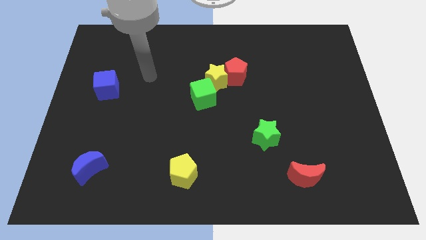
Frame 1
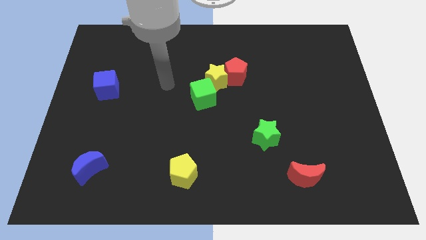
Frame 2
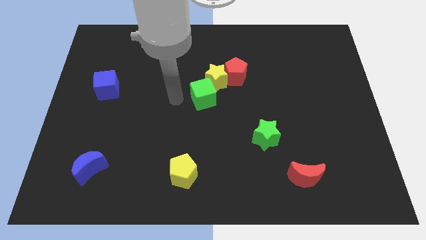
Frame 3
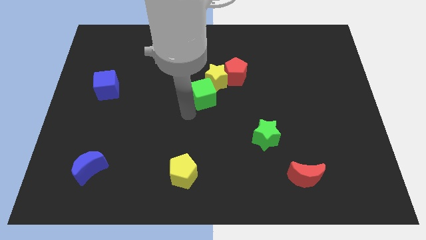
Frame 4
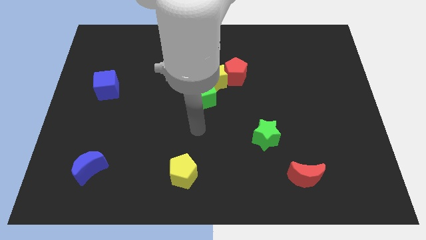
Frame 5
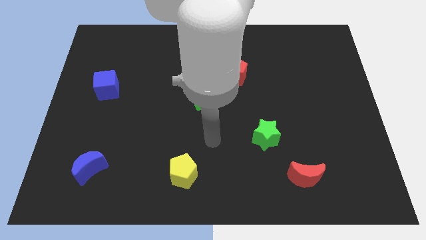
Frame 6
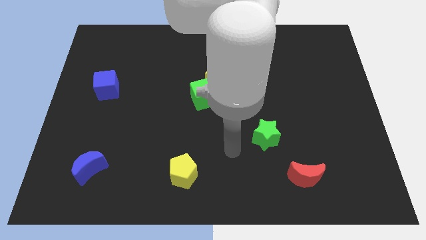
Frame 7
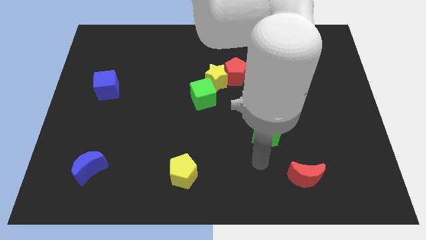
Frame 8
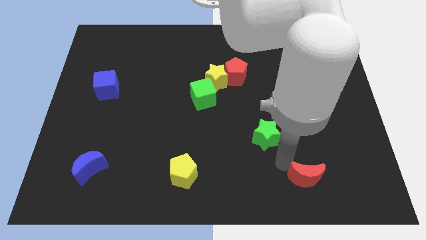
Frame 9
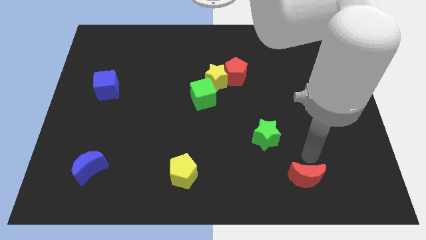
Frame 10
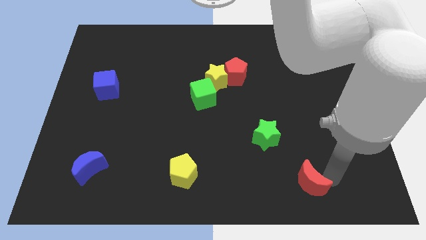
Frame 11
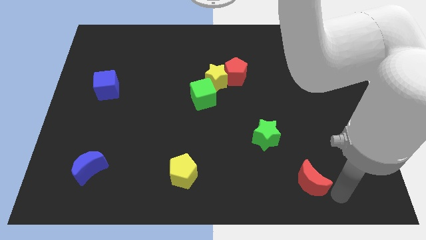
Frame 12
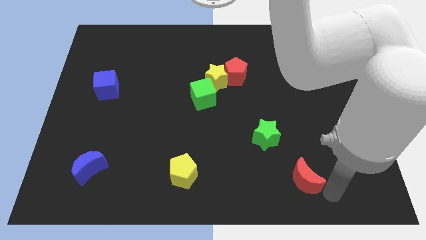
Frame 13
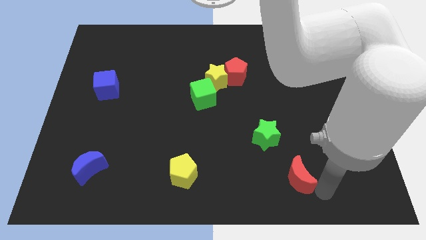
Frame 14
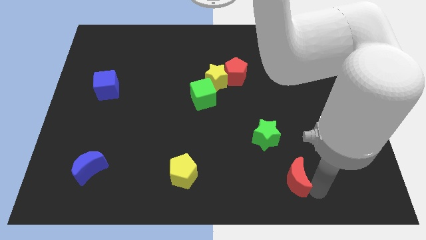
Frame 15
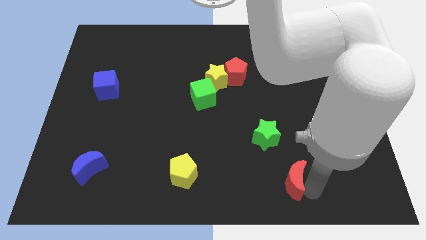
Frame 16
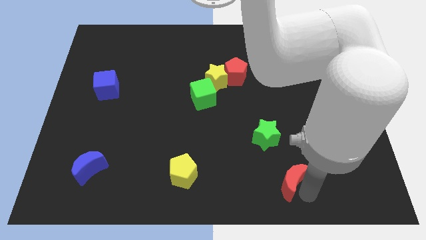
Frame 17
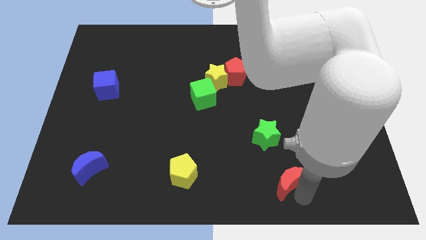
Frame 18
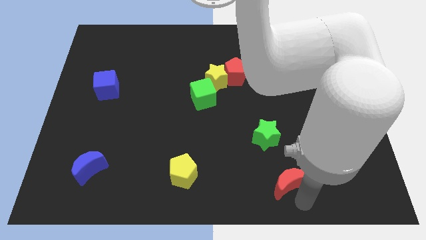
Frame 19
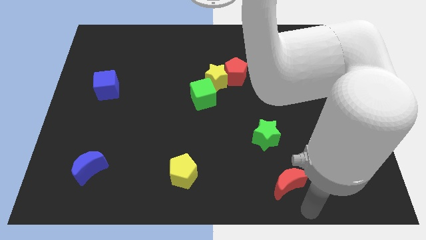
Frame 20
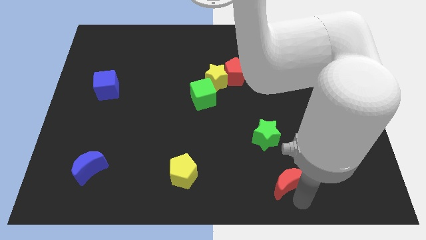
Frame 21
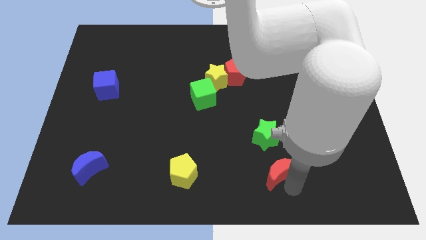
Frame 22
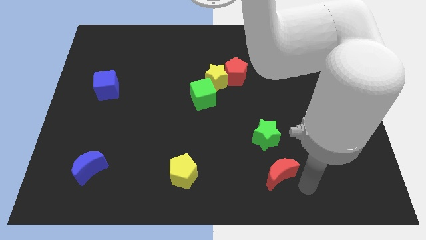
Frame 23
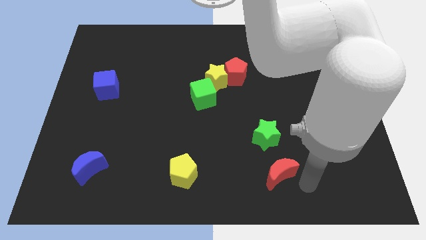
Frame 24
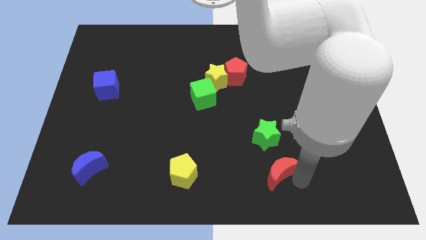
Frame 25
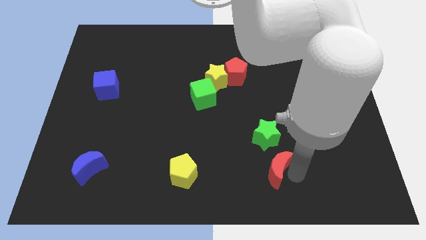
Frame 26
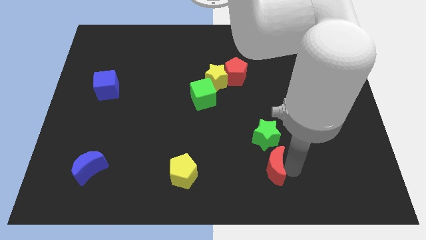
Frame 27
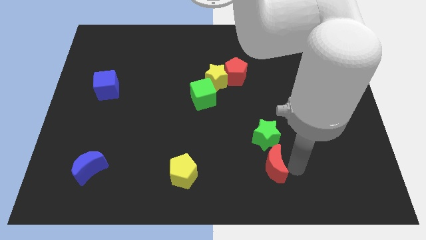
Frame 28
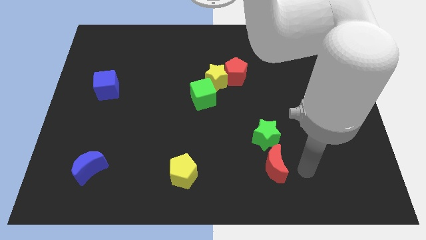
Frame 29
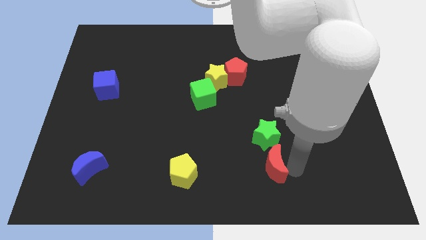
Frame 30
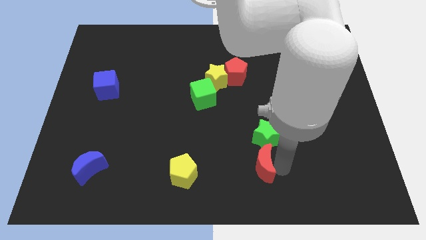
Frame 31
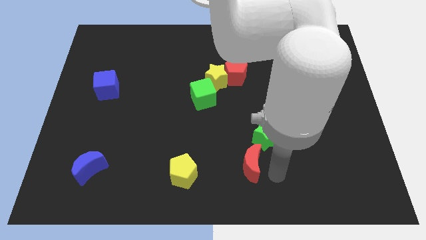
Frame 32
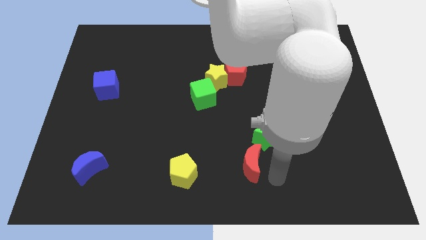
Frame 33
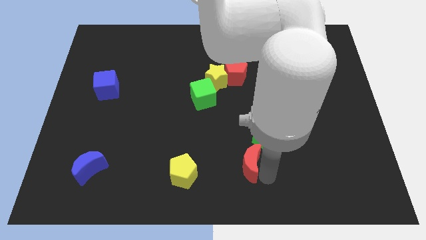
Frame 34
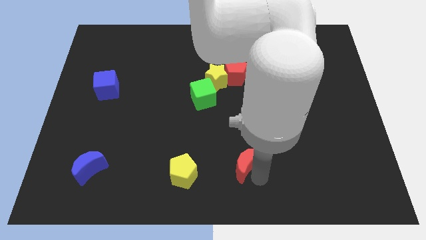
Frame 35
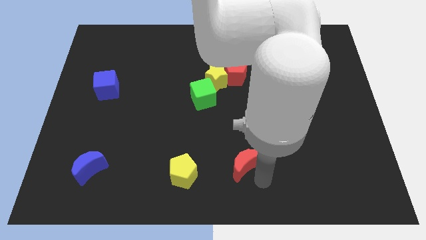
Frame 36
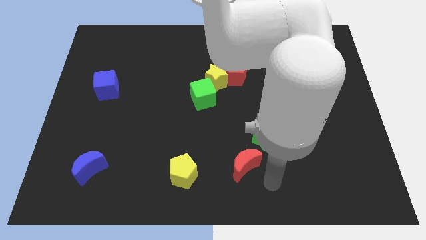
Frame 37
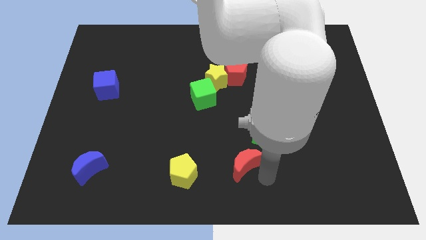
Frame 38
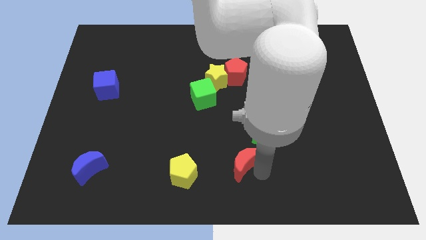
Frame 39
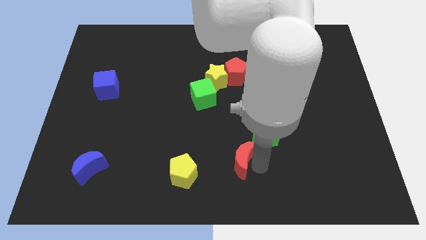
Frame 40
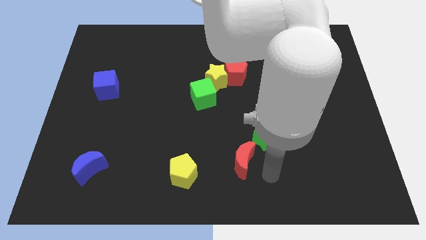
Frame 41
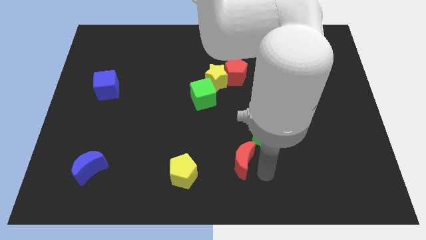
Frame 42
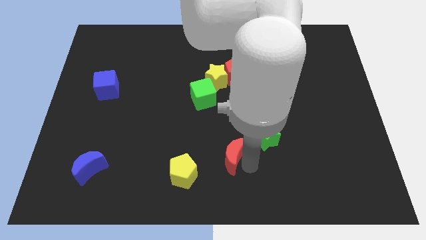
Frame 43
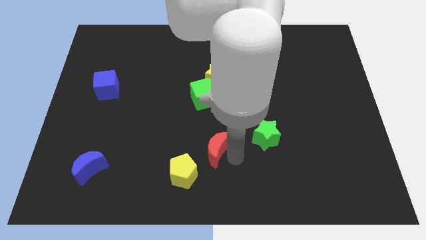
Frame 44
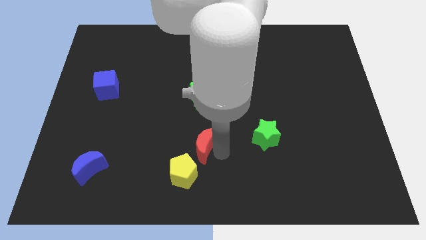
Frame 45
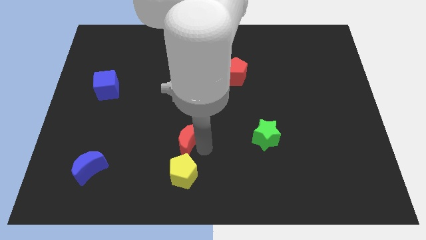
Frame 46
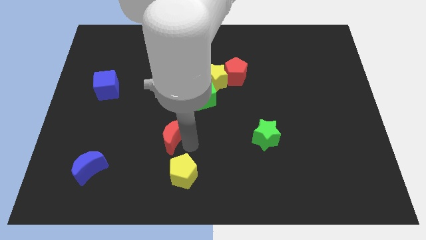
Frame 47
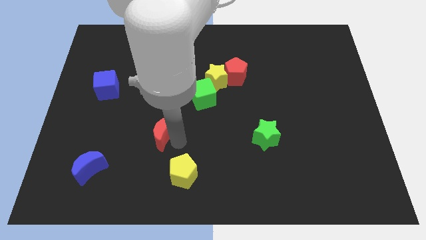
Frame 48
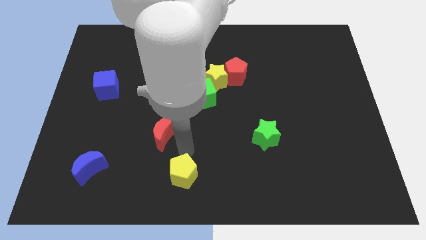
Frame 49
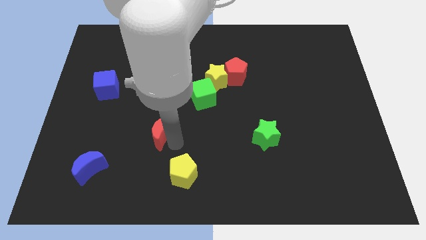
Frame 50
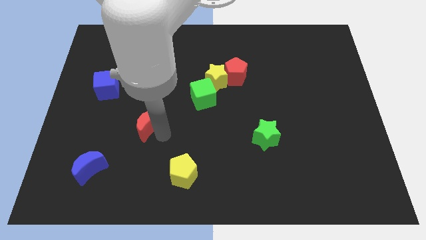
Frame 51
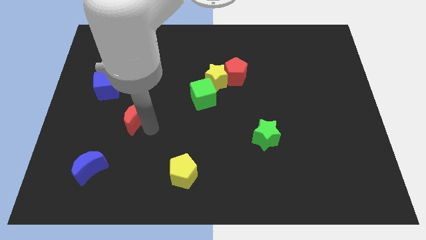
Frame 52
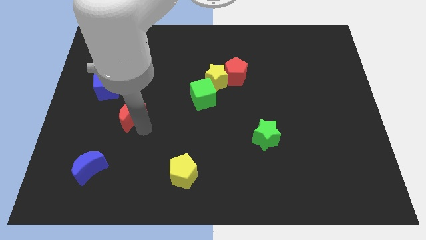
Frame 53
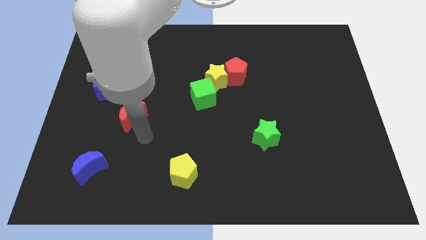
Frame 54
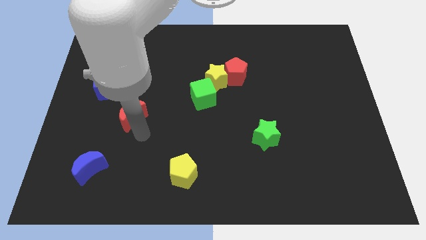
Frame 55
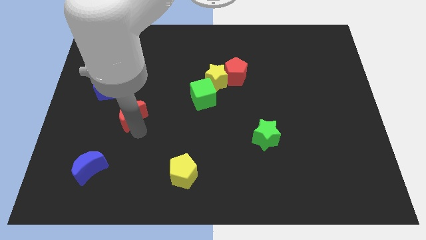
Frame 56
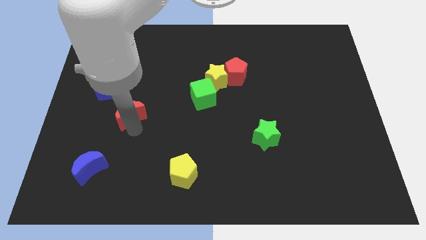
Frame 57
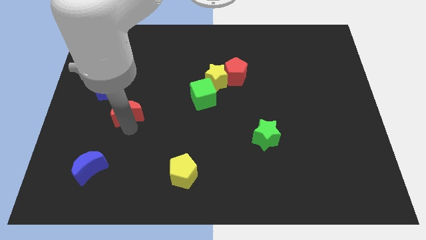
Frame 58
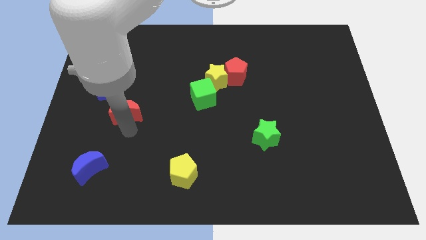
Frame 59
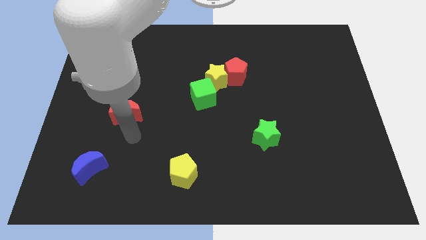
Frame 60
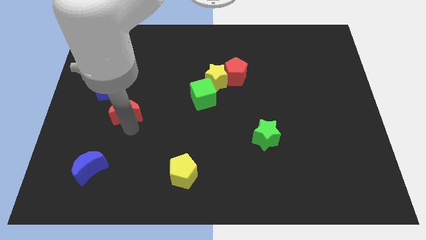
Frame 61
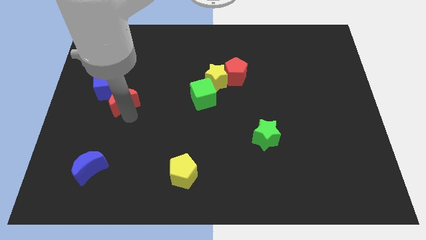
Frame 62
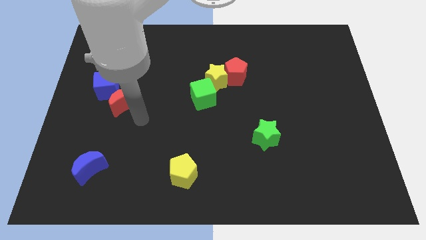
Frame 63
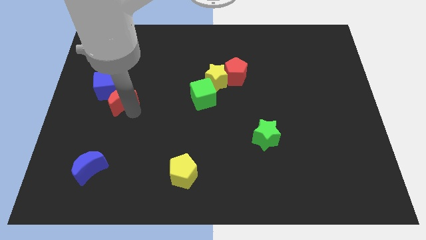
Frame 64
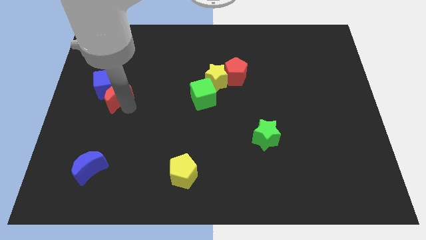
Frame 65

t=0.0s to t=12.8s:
move the red moon to the blue cube

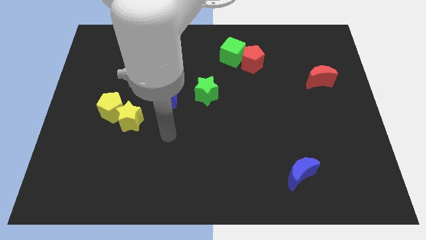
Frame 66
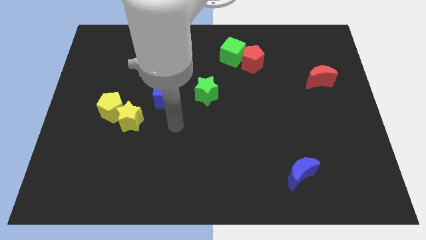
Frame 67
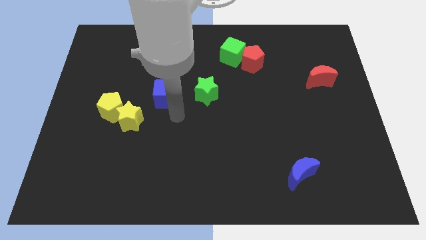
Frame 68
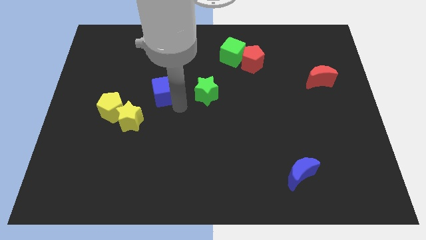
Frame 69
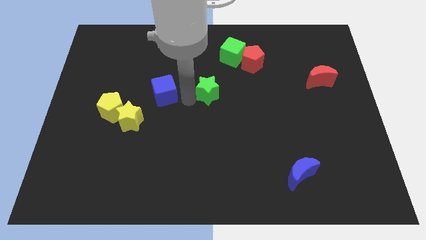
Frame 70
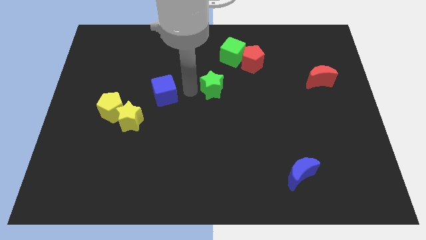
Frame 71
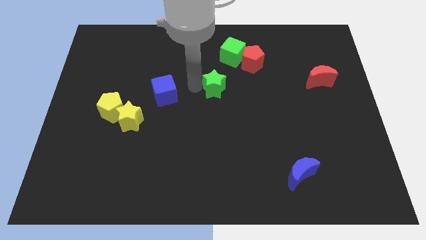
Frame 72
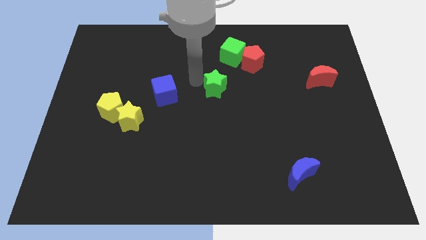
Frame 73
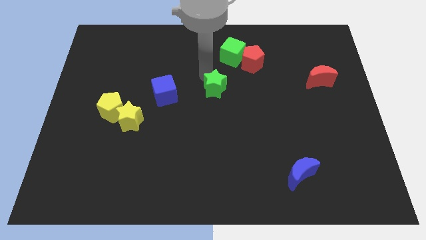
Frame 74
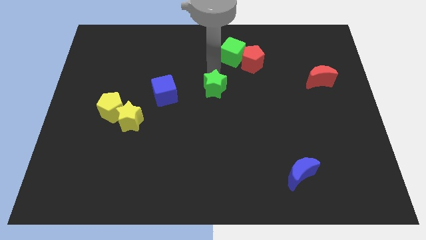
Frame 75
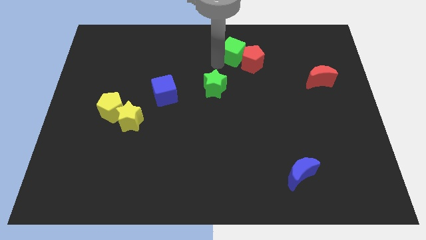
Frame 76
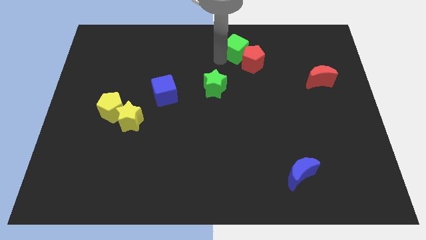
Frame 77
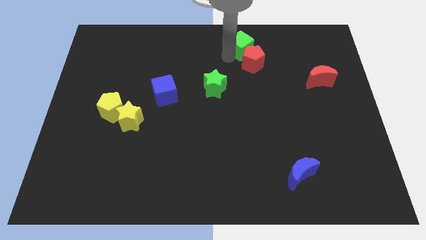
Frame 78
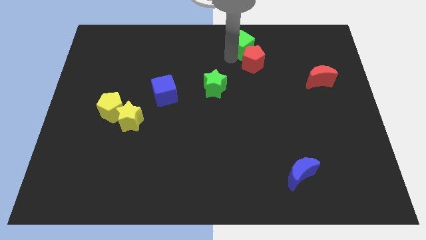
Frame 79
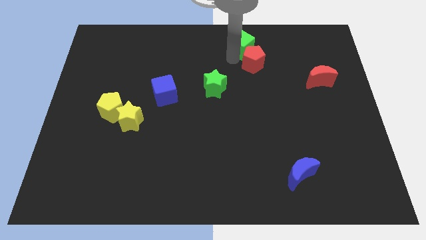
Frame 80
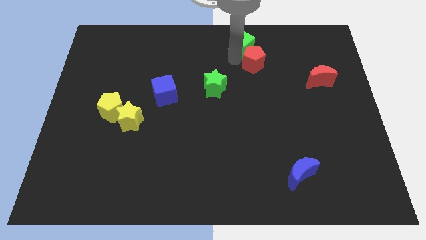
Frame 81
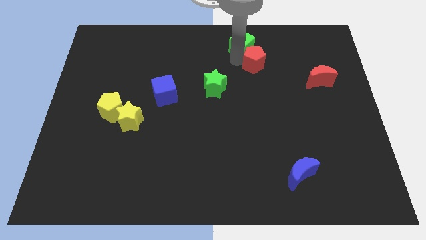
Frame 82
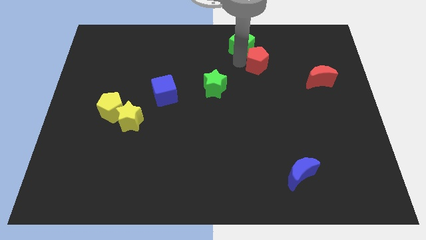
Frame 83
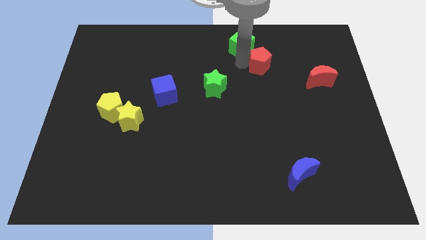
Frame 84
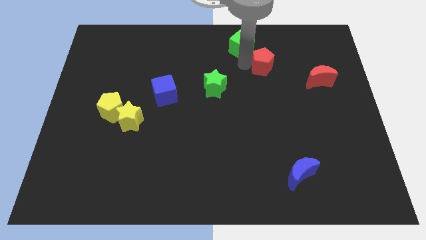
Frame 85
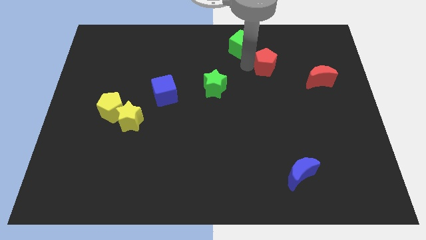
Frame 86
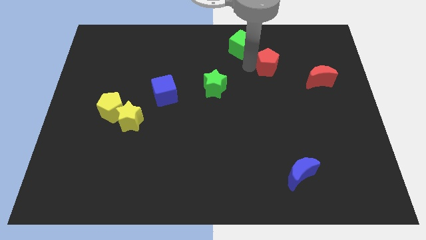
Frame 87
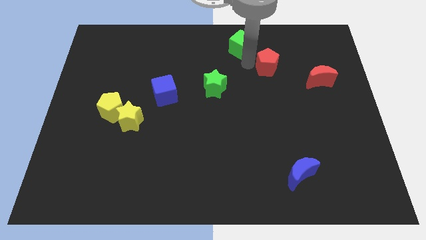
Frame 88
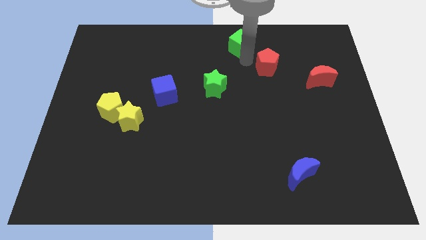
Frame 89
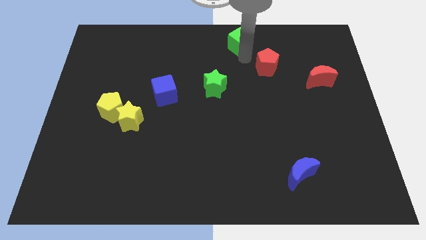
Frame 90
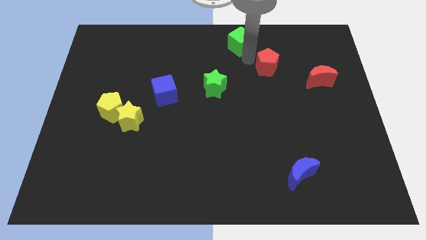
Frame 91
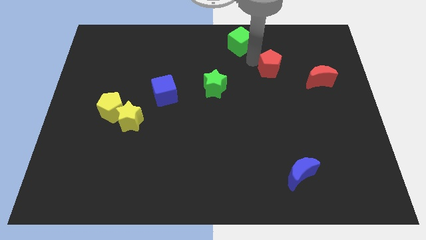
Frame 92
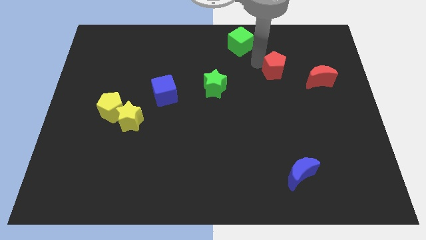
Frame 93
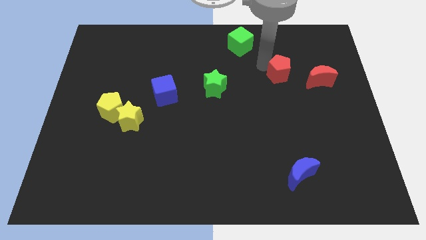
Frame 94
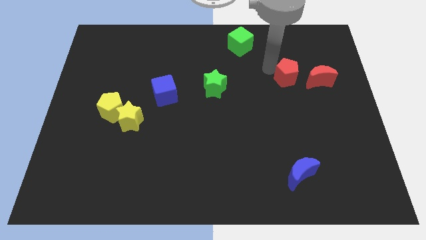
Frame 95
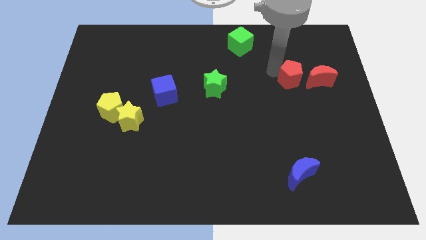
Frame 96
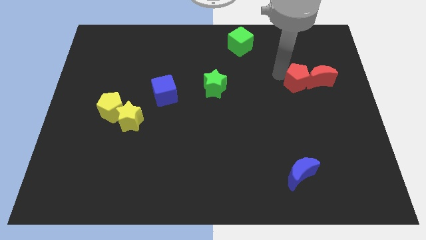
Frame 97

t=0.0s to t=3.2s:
slide the red pentagon next to the red moon
